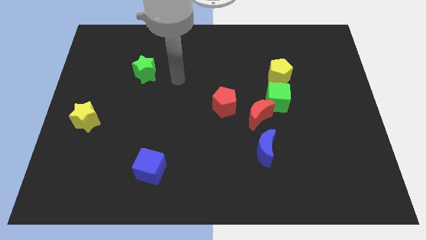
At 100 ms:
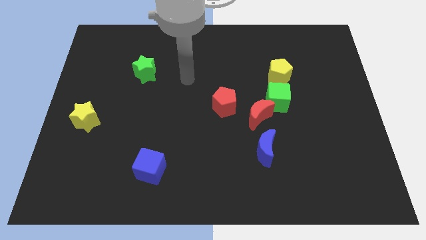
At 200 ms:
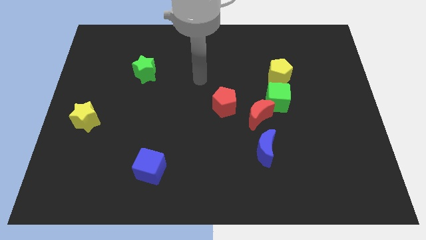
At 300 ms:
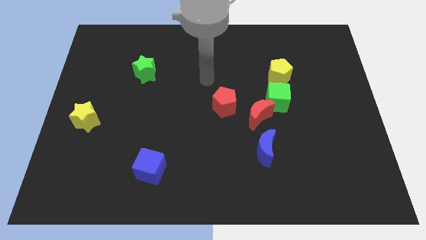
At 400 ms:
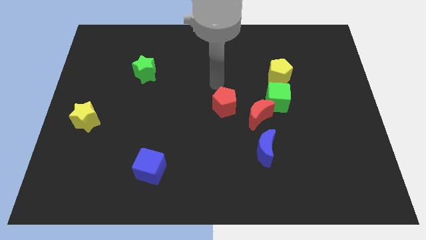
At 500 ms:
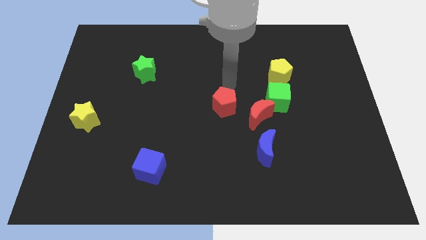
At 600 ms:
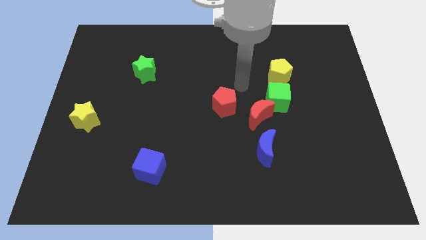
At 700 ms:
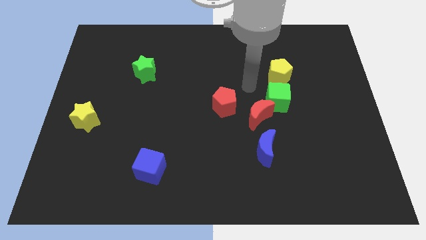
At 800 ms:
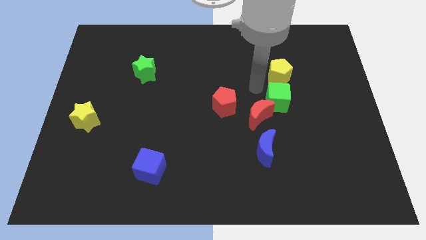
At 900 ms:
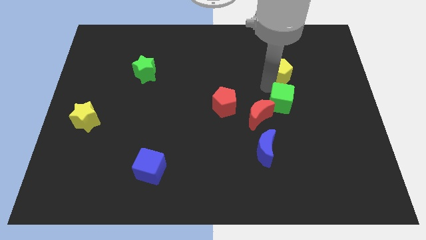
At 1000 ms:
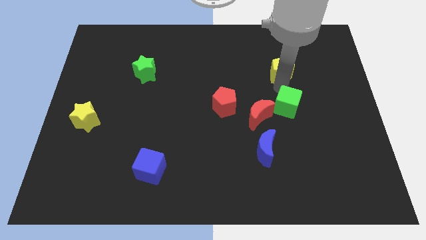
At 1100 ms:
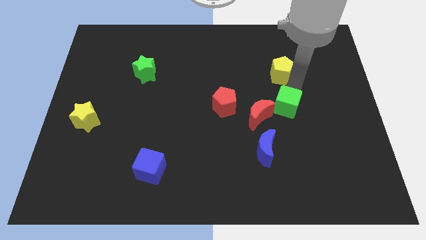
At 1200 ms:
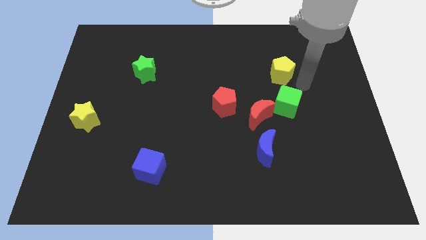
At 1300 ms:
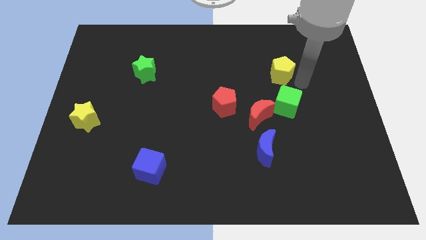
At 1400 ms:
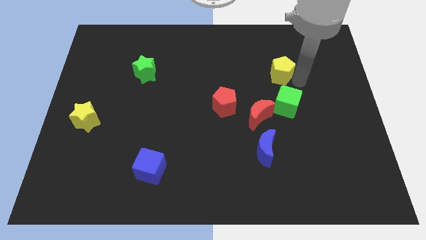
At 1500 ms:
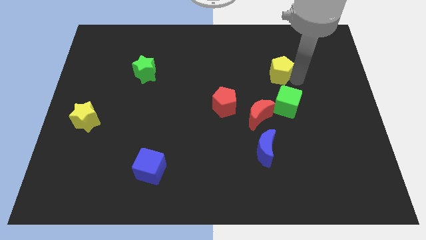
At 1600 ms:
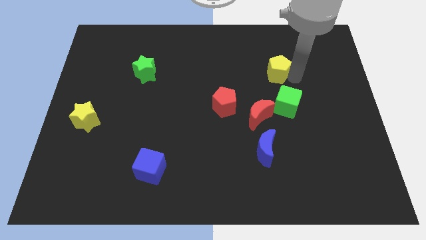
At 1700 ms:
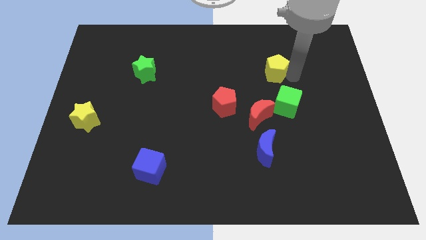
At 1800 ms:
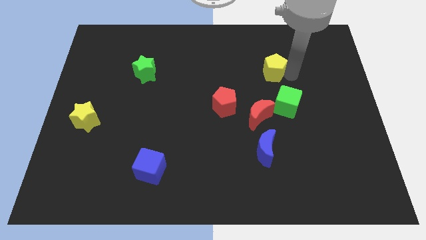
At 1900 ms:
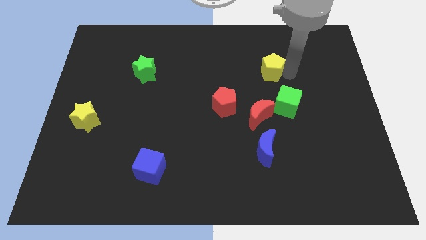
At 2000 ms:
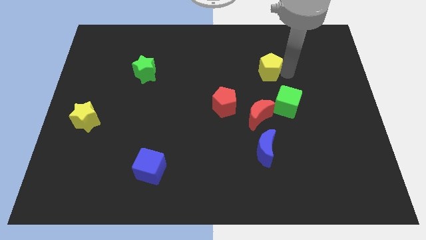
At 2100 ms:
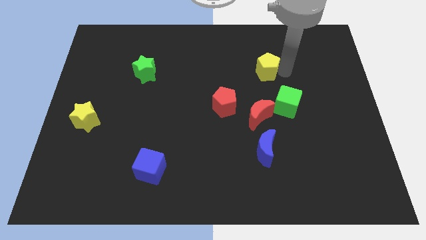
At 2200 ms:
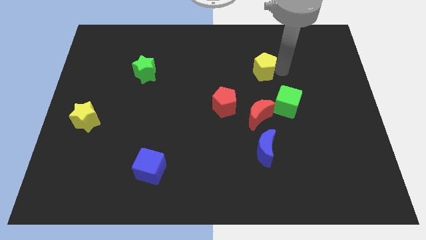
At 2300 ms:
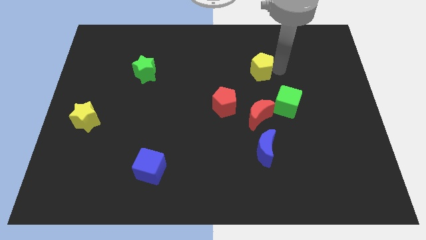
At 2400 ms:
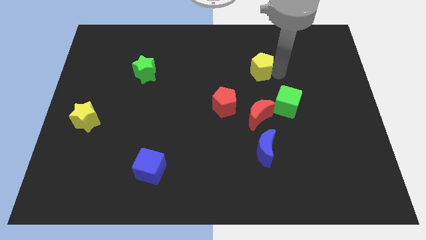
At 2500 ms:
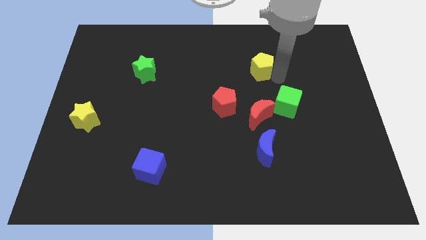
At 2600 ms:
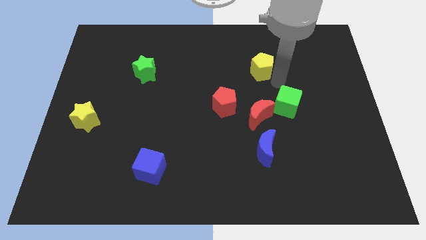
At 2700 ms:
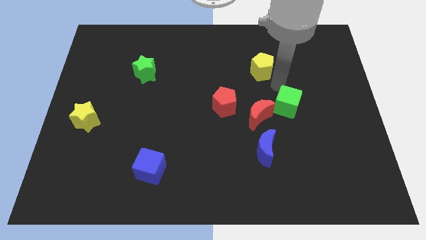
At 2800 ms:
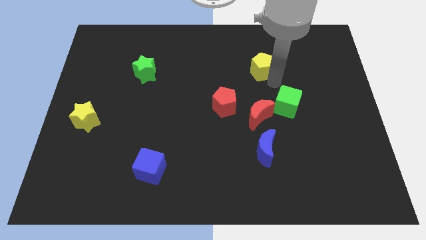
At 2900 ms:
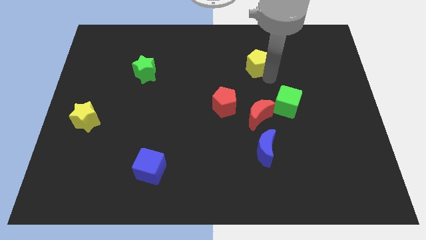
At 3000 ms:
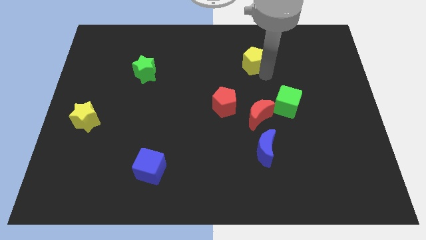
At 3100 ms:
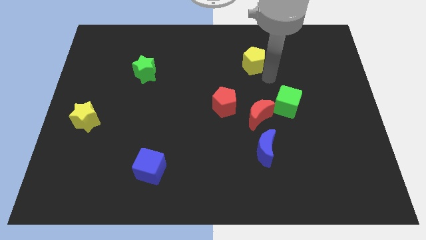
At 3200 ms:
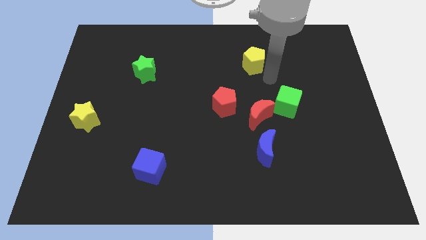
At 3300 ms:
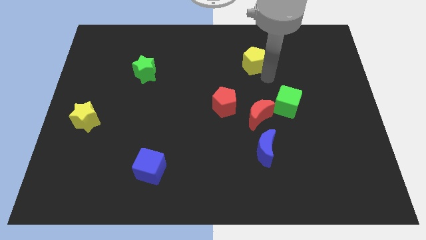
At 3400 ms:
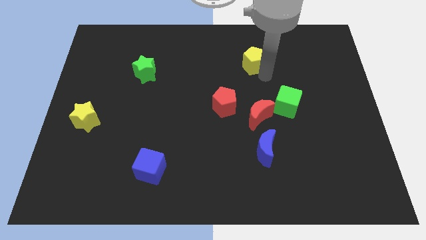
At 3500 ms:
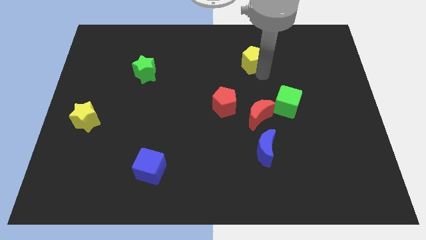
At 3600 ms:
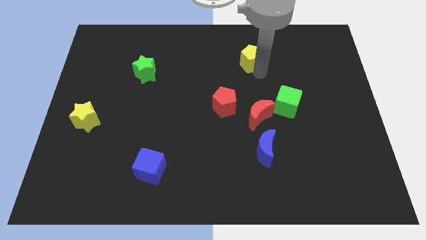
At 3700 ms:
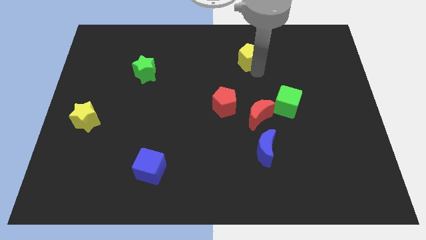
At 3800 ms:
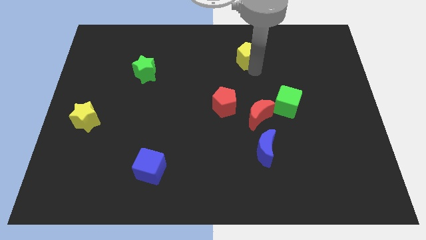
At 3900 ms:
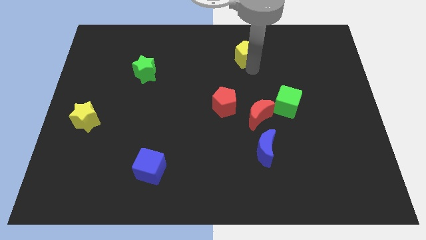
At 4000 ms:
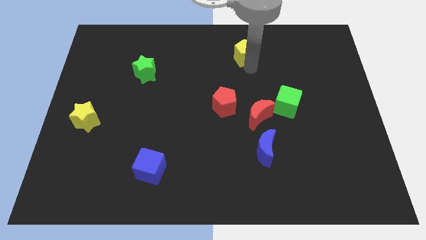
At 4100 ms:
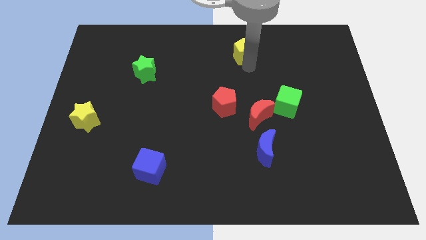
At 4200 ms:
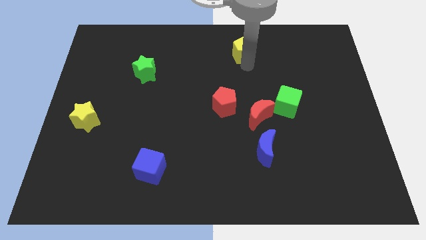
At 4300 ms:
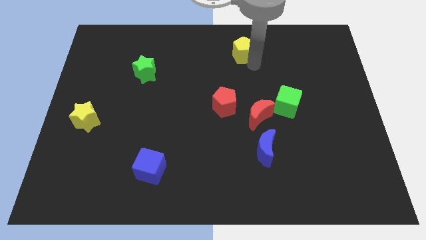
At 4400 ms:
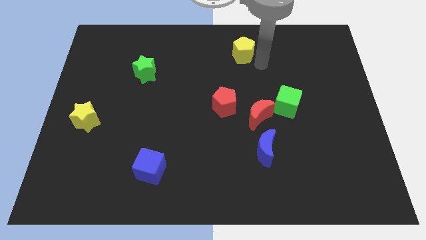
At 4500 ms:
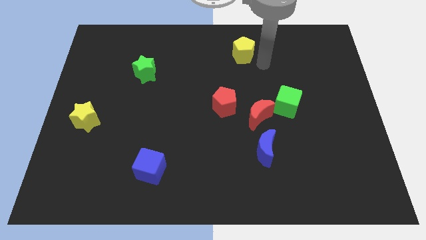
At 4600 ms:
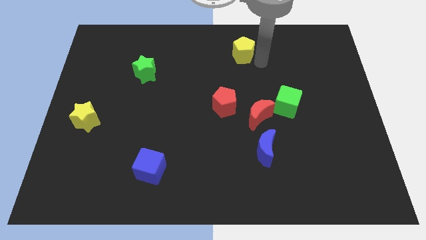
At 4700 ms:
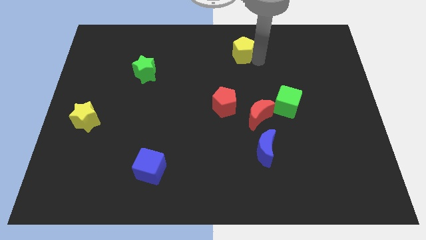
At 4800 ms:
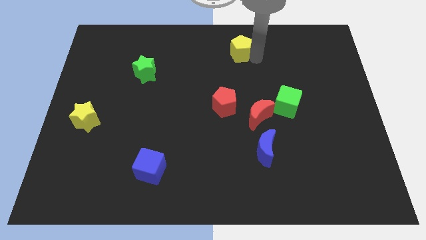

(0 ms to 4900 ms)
push the yellow pentagon to the top side
